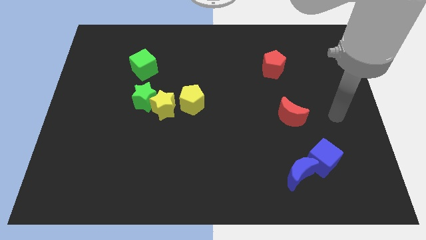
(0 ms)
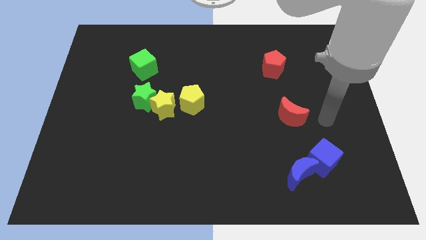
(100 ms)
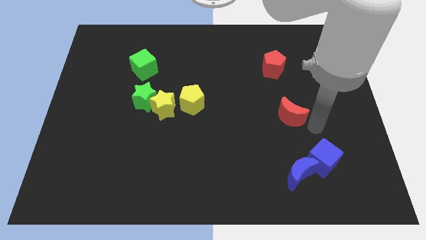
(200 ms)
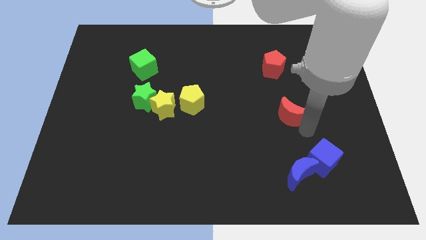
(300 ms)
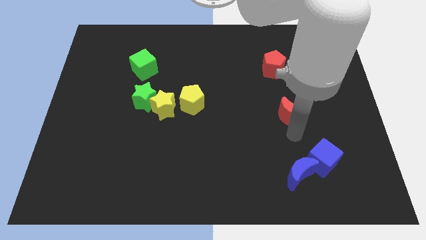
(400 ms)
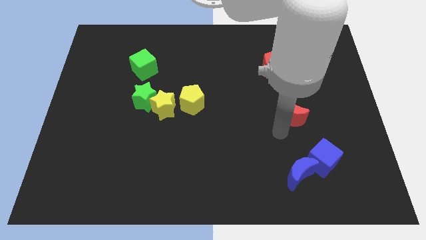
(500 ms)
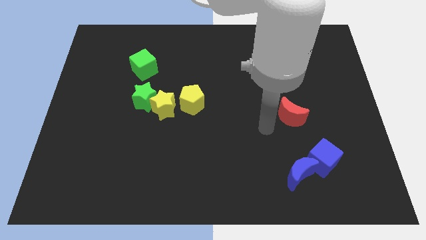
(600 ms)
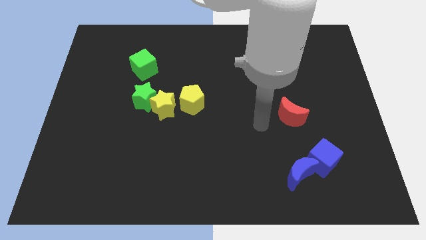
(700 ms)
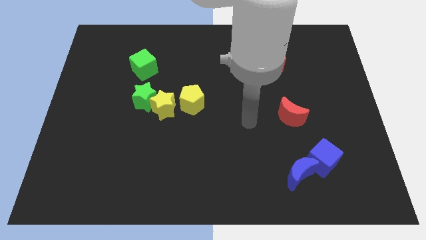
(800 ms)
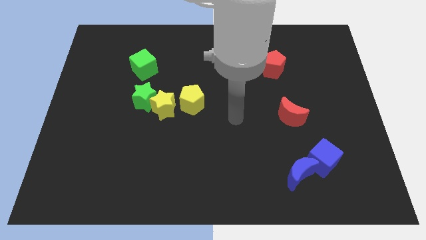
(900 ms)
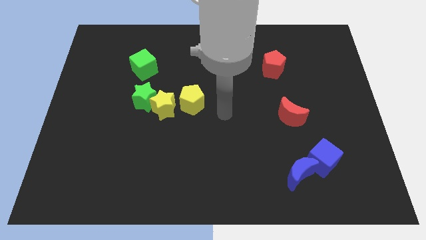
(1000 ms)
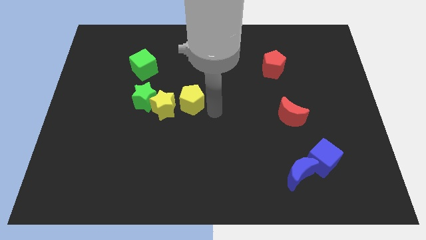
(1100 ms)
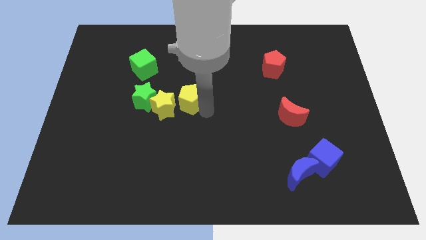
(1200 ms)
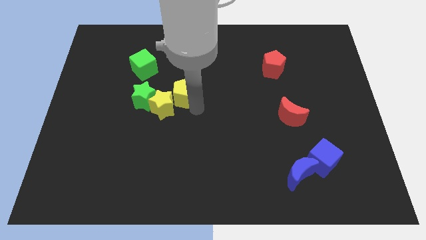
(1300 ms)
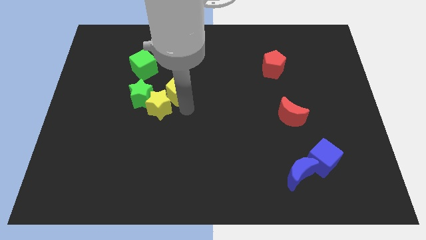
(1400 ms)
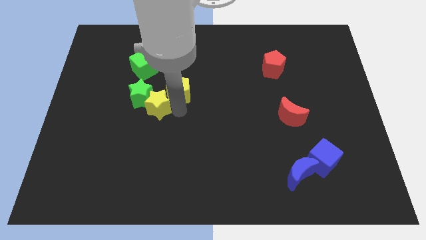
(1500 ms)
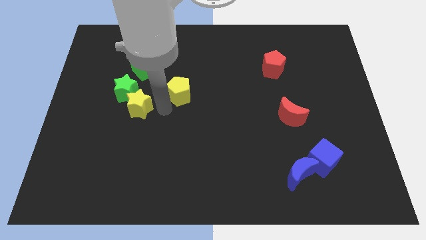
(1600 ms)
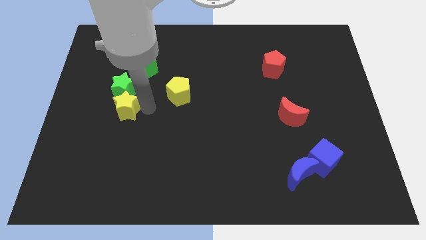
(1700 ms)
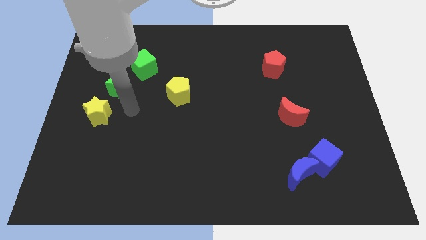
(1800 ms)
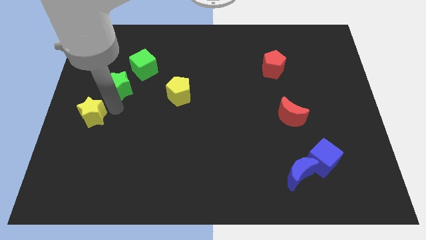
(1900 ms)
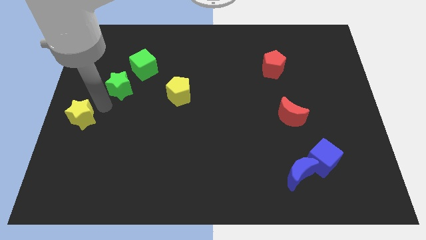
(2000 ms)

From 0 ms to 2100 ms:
pull the green star apart from the yellow star

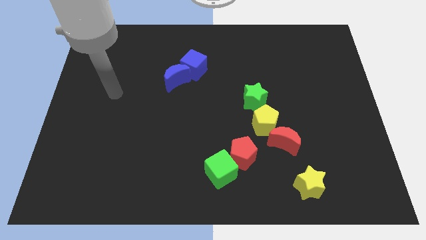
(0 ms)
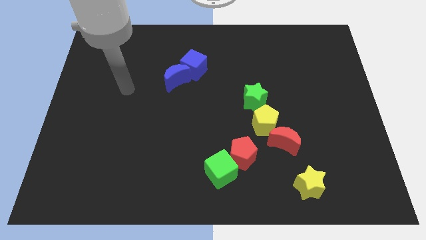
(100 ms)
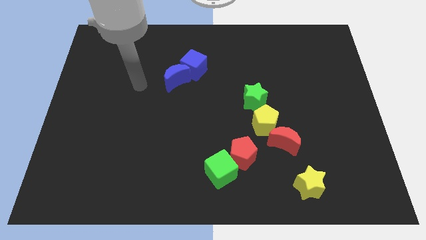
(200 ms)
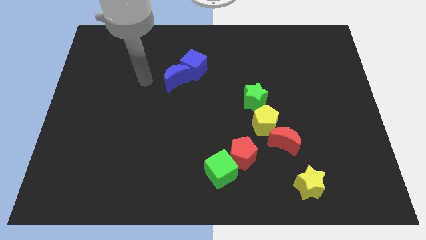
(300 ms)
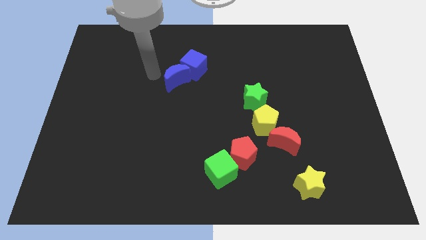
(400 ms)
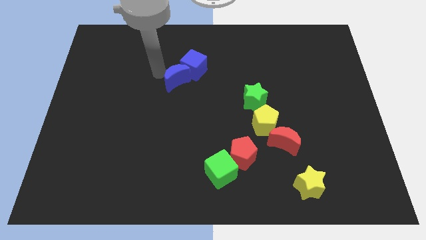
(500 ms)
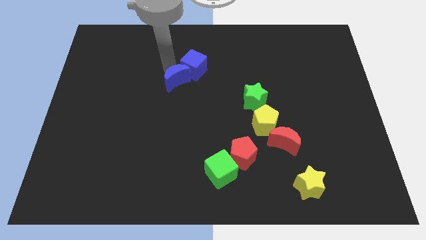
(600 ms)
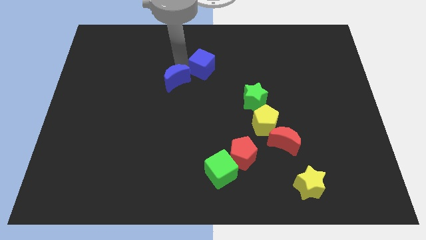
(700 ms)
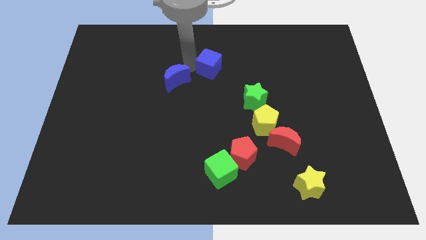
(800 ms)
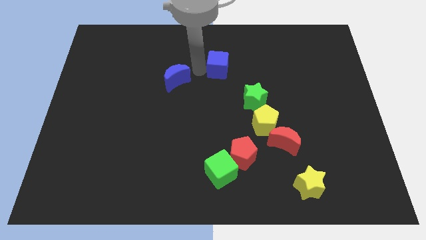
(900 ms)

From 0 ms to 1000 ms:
separate the blue moon from the blue cube

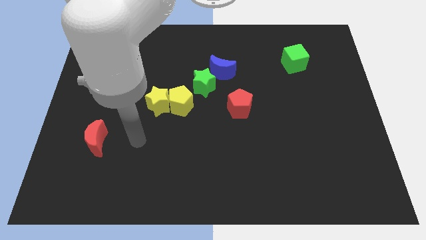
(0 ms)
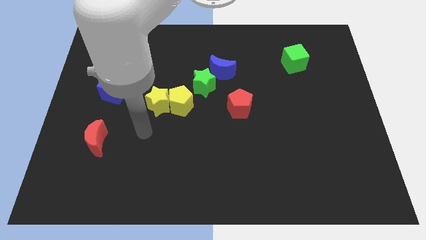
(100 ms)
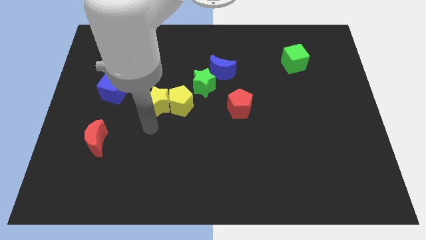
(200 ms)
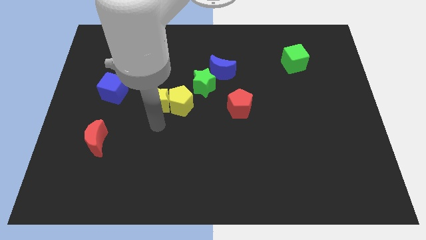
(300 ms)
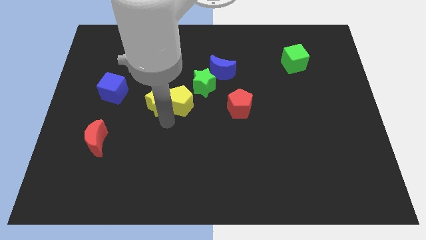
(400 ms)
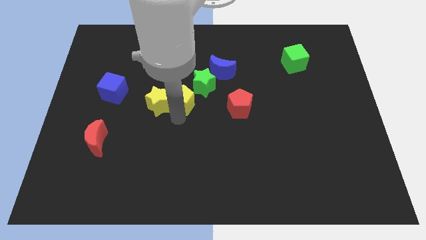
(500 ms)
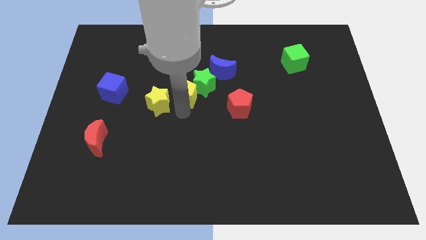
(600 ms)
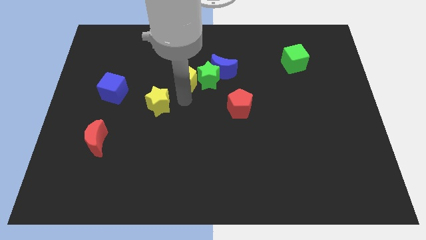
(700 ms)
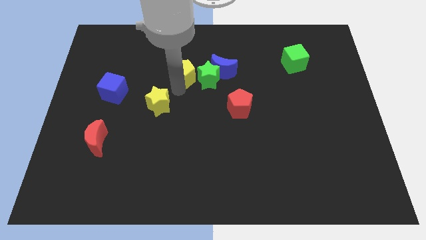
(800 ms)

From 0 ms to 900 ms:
separate the yellow star from the yellow pentagon

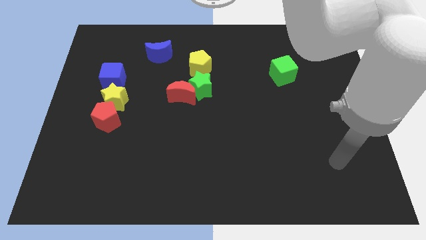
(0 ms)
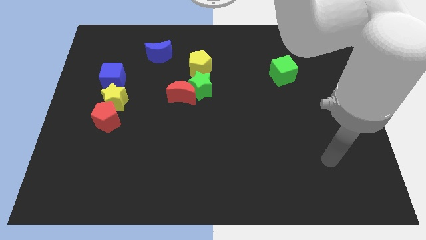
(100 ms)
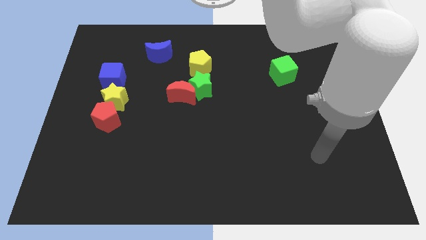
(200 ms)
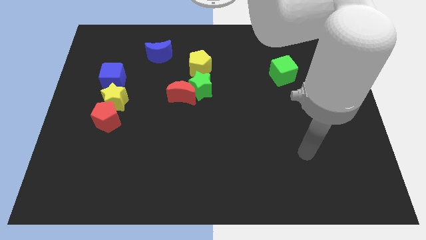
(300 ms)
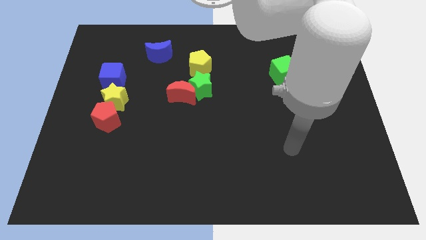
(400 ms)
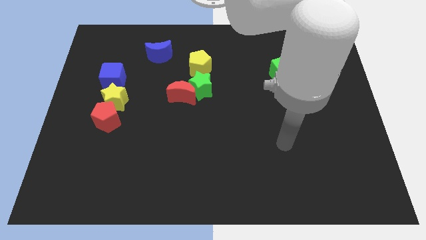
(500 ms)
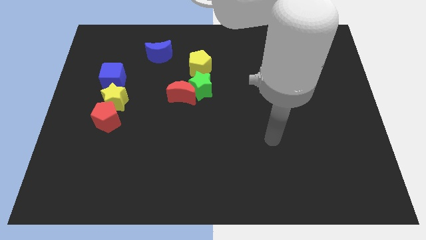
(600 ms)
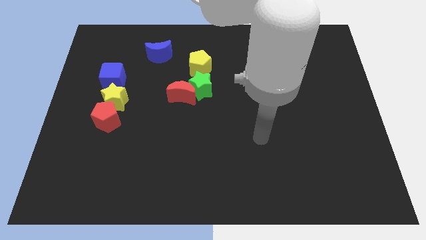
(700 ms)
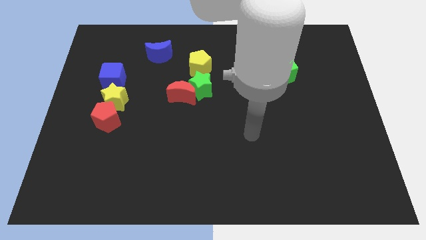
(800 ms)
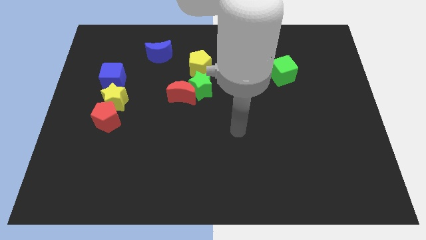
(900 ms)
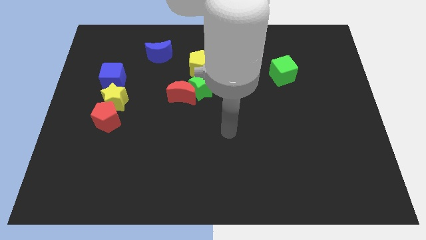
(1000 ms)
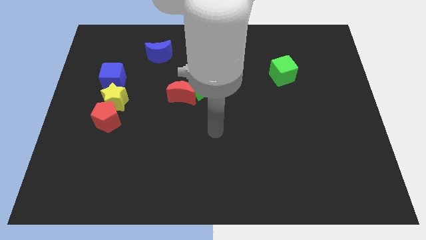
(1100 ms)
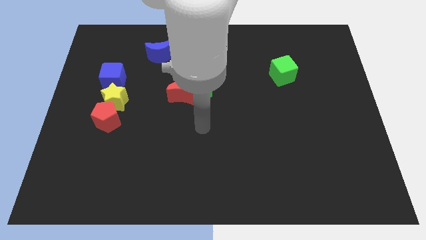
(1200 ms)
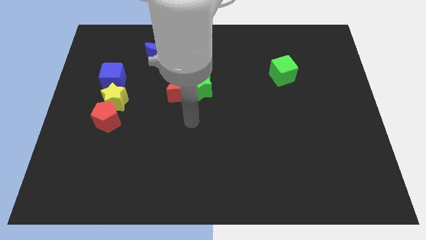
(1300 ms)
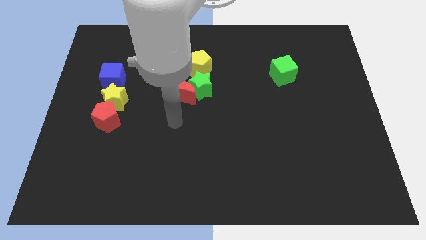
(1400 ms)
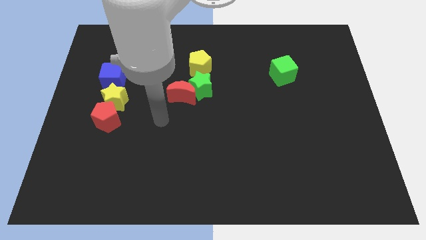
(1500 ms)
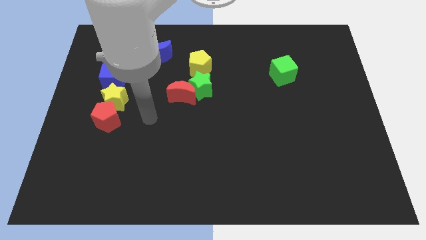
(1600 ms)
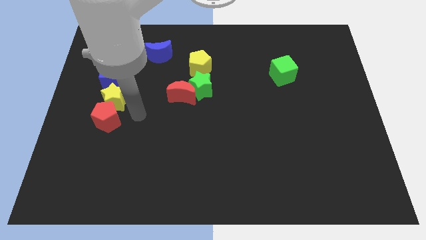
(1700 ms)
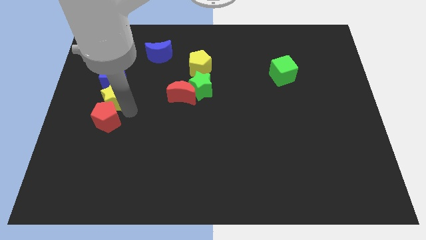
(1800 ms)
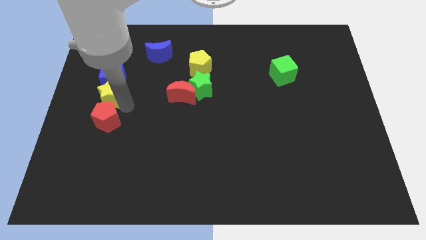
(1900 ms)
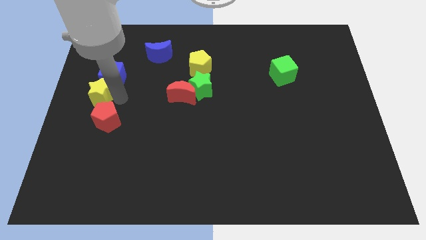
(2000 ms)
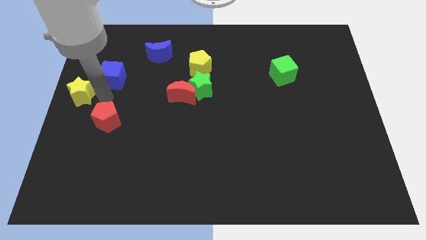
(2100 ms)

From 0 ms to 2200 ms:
pull the red pentagon apart from the yellow star

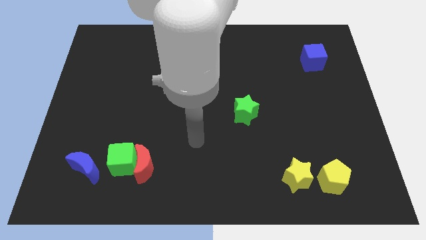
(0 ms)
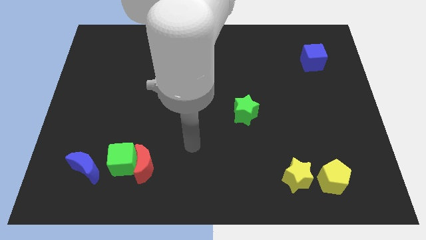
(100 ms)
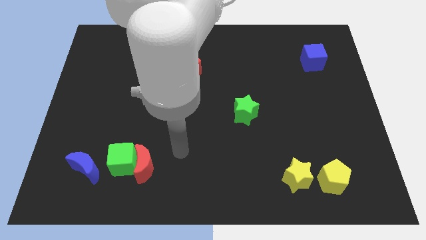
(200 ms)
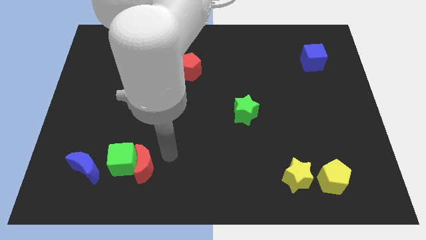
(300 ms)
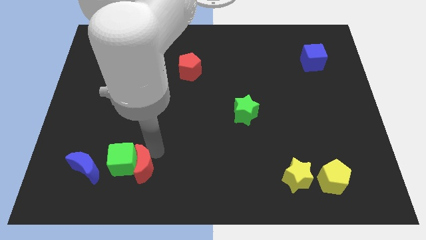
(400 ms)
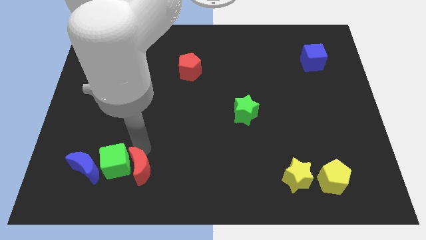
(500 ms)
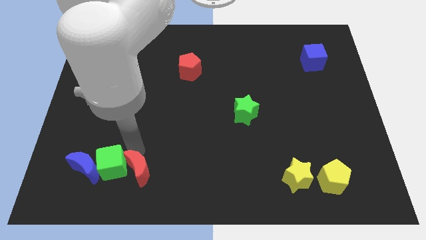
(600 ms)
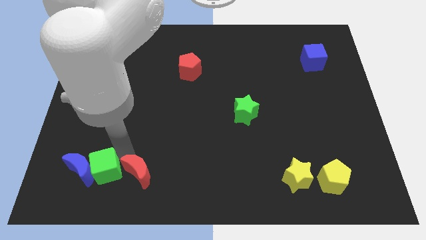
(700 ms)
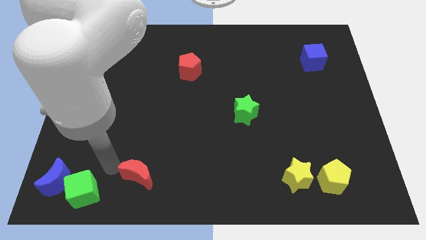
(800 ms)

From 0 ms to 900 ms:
move the red moon away from the green cube

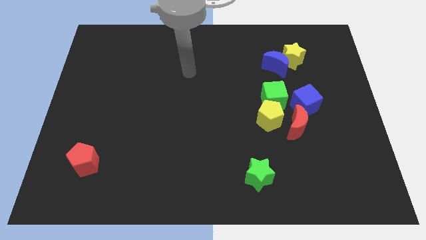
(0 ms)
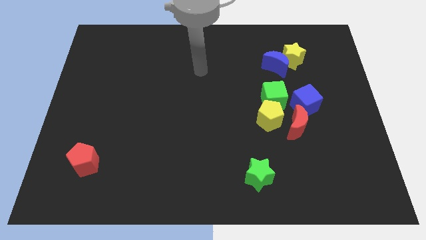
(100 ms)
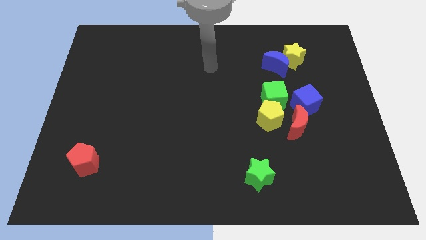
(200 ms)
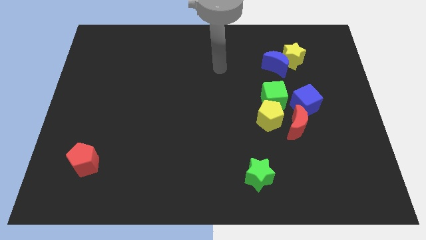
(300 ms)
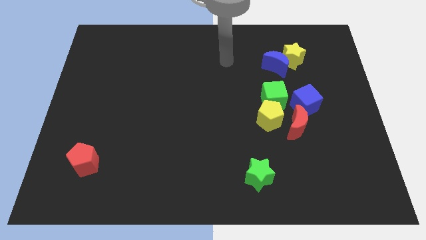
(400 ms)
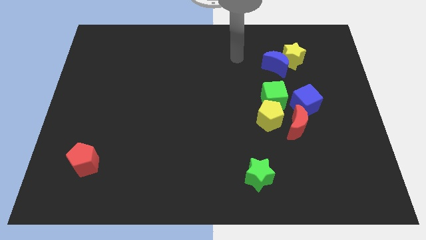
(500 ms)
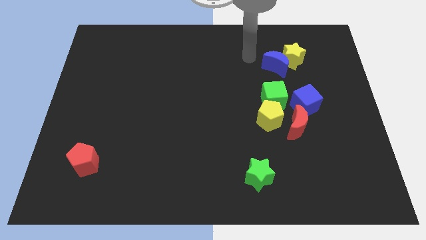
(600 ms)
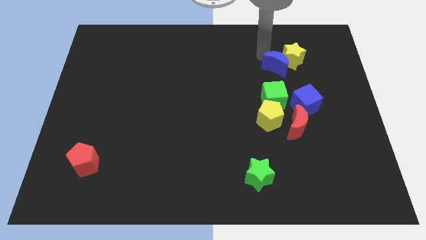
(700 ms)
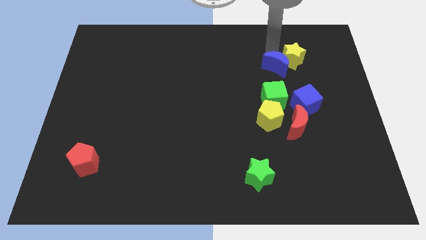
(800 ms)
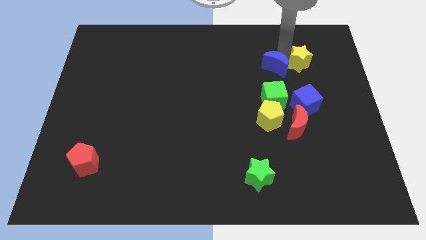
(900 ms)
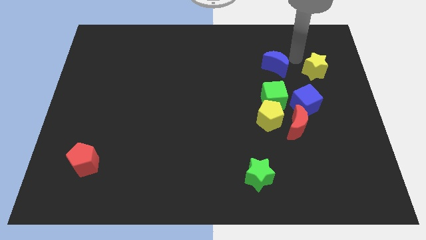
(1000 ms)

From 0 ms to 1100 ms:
move the blue moon away from the yellow star

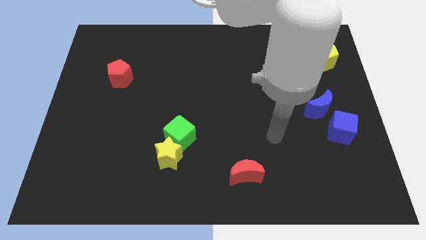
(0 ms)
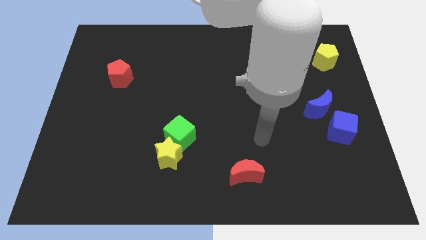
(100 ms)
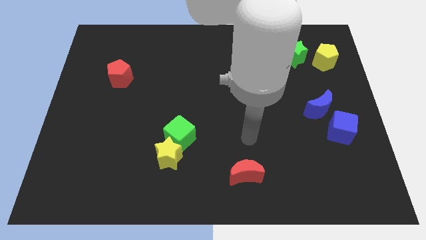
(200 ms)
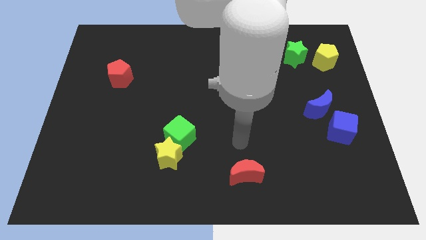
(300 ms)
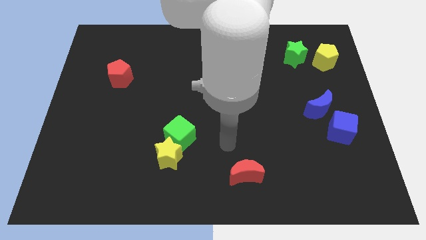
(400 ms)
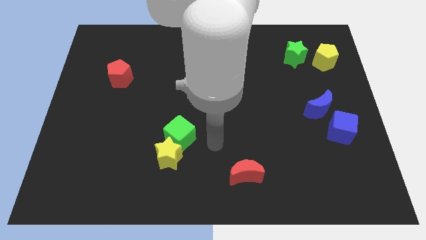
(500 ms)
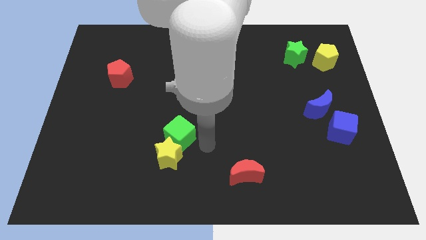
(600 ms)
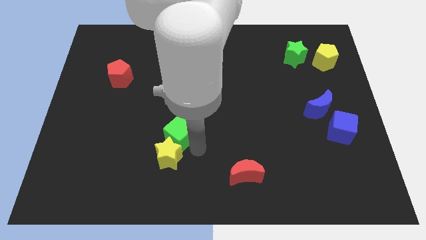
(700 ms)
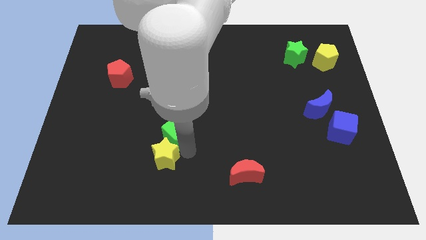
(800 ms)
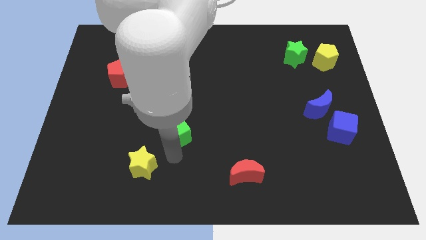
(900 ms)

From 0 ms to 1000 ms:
separate the green cube from the yellow star
